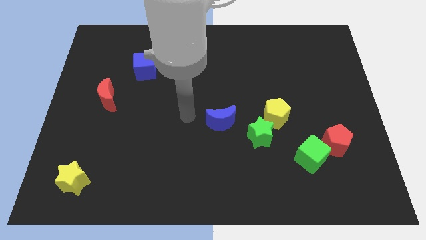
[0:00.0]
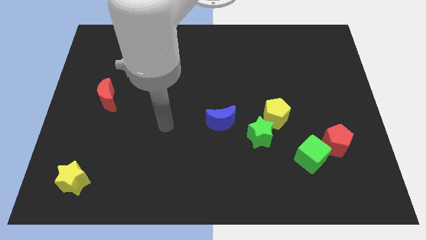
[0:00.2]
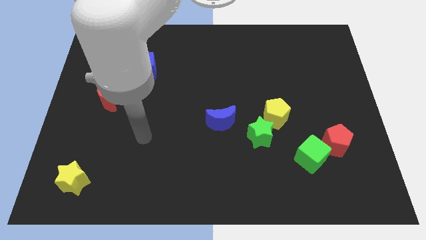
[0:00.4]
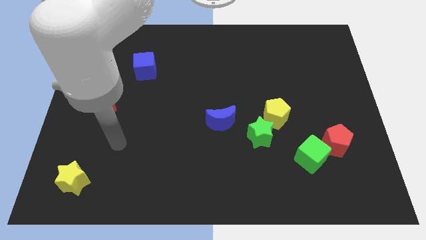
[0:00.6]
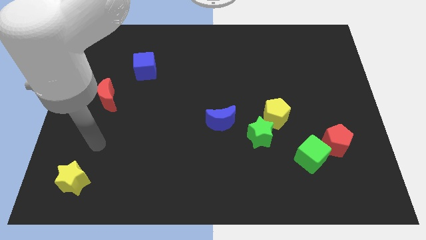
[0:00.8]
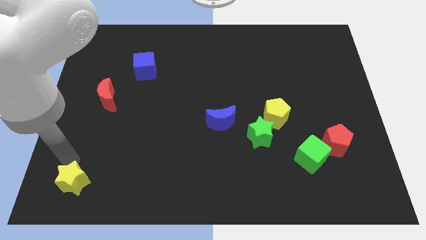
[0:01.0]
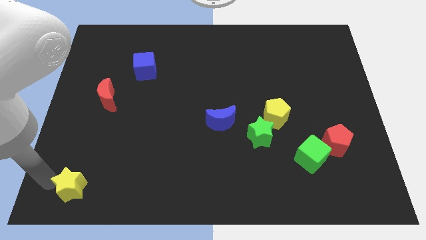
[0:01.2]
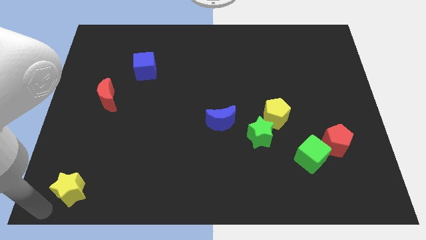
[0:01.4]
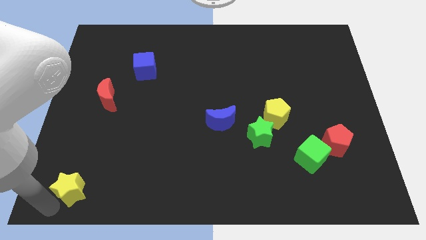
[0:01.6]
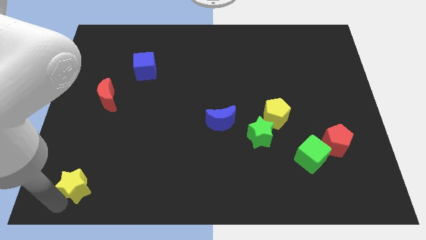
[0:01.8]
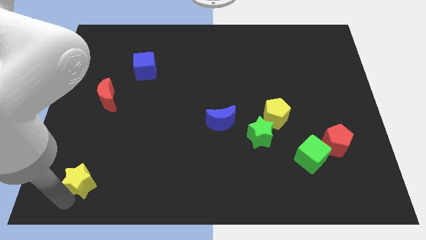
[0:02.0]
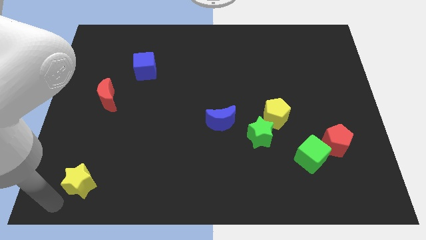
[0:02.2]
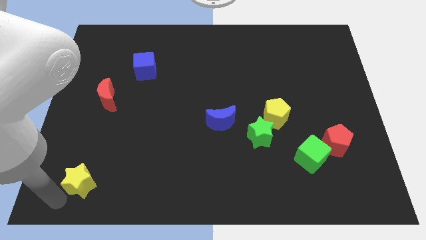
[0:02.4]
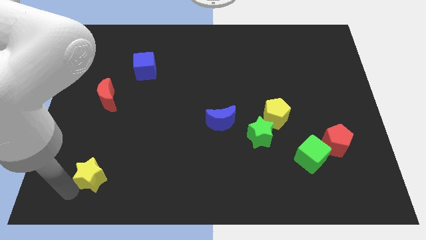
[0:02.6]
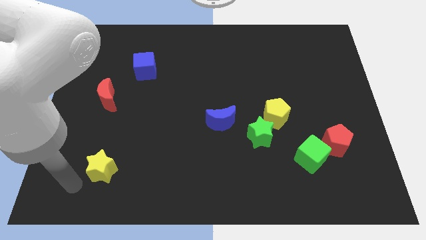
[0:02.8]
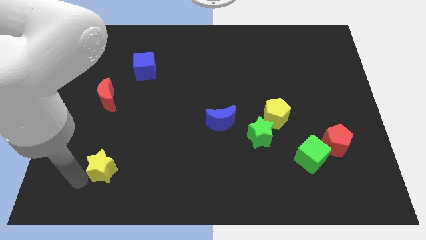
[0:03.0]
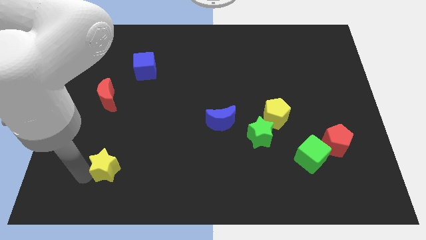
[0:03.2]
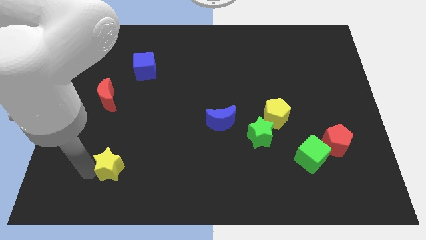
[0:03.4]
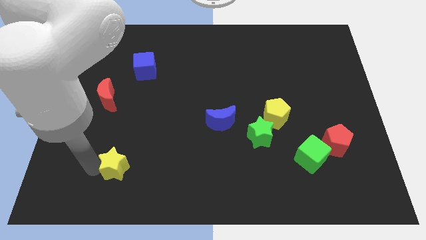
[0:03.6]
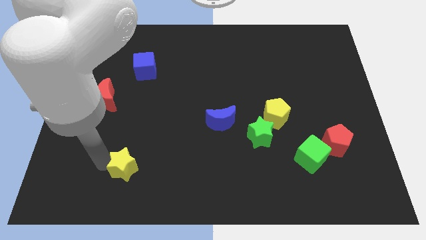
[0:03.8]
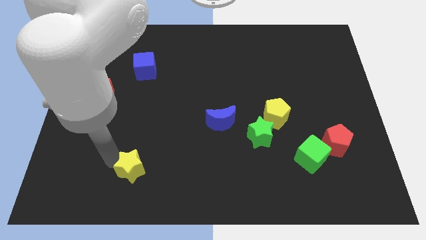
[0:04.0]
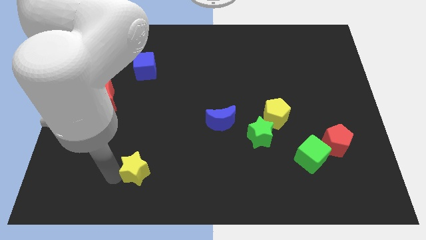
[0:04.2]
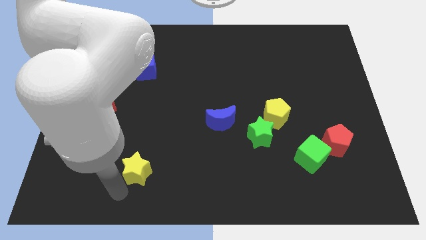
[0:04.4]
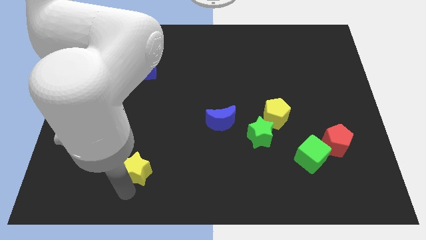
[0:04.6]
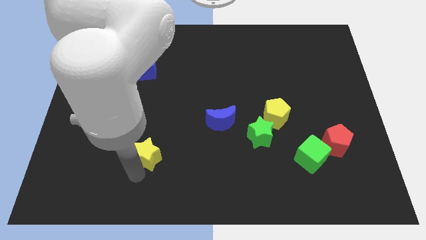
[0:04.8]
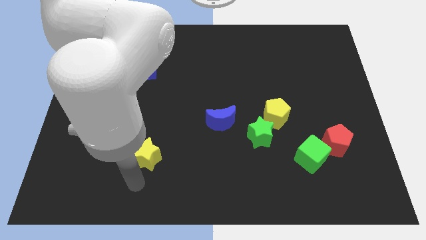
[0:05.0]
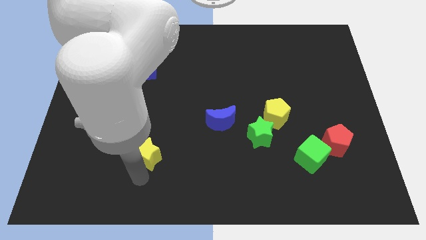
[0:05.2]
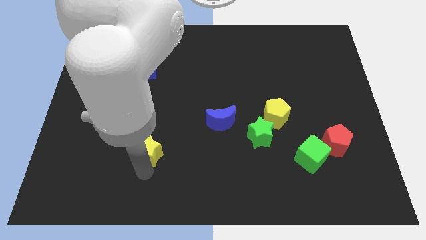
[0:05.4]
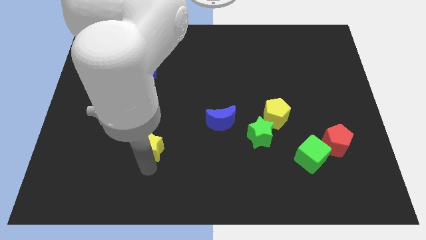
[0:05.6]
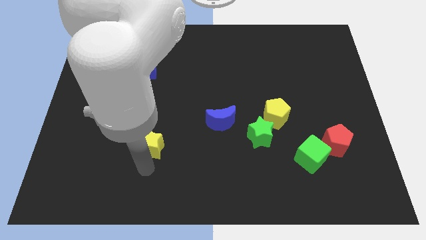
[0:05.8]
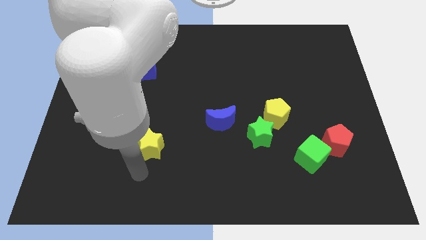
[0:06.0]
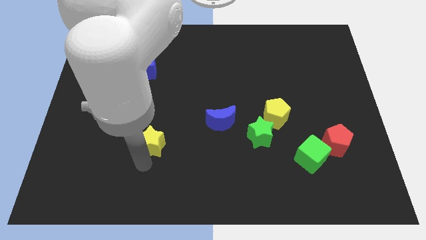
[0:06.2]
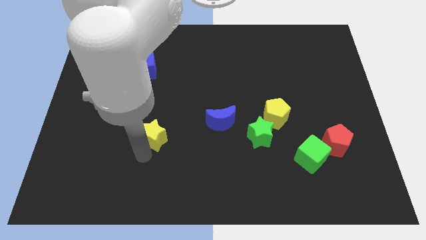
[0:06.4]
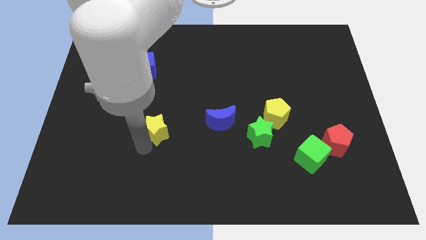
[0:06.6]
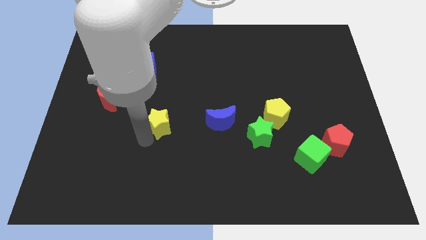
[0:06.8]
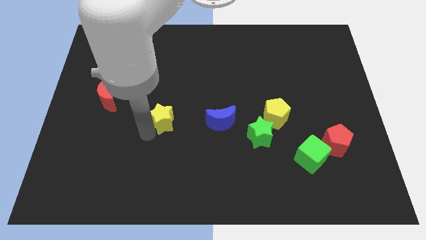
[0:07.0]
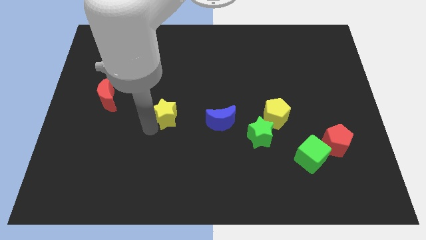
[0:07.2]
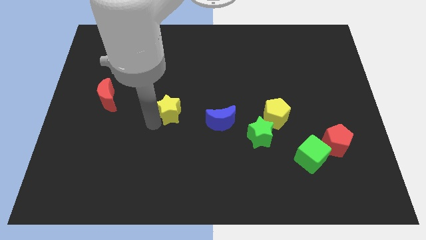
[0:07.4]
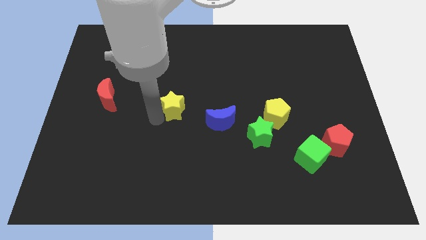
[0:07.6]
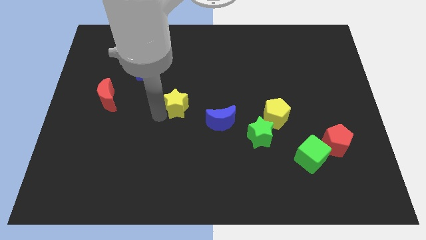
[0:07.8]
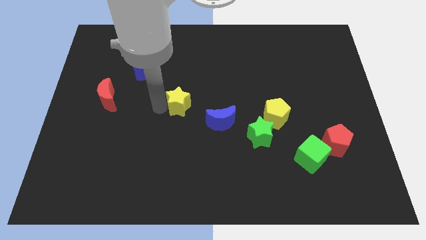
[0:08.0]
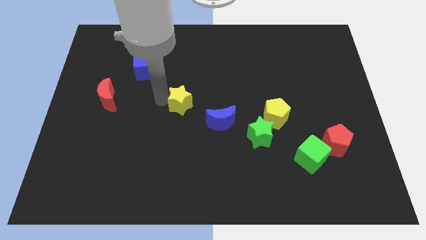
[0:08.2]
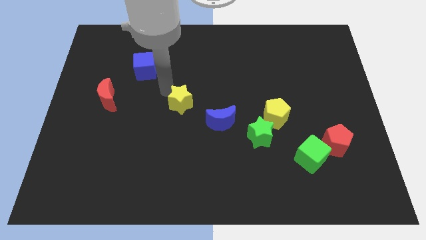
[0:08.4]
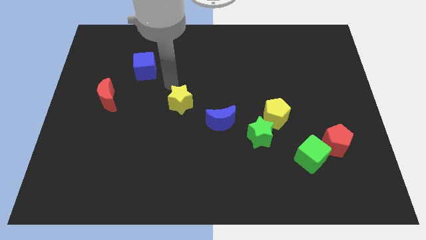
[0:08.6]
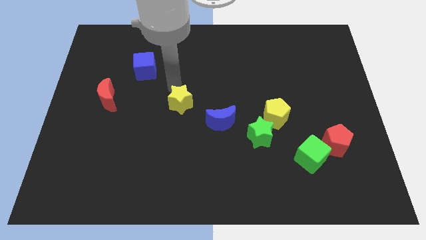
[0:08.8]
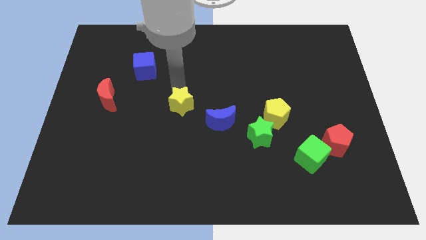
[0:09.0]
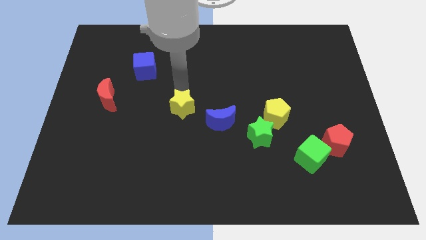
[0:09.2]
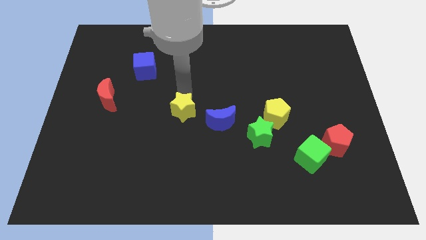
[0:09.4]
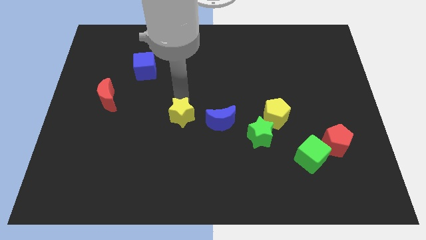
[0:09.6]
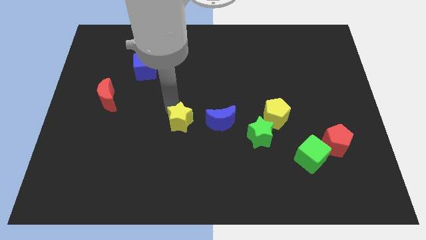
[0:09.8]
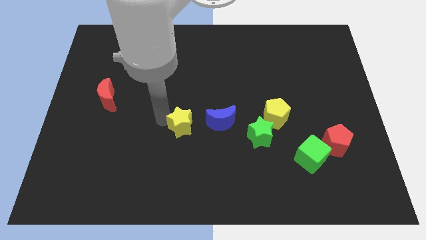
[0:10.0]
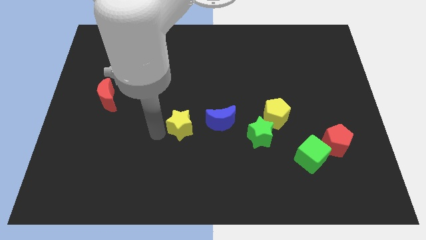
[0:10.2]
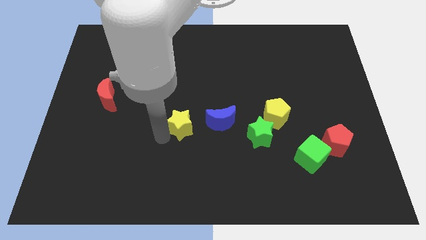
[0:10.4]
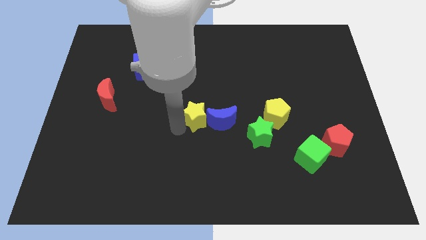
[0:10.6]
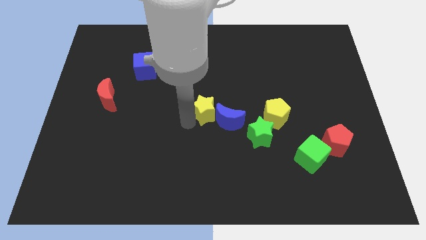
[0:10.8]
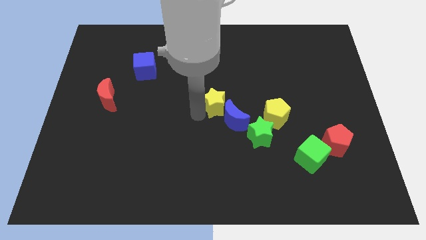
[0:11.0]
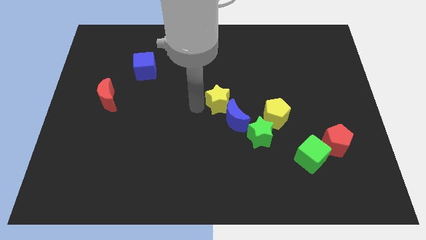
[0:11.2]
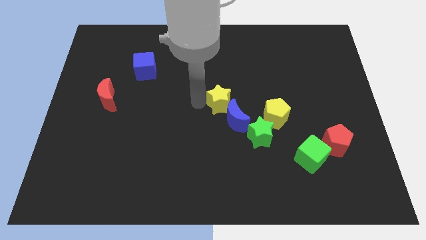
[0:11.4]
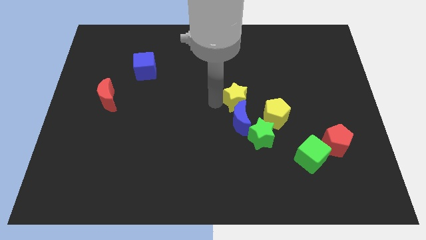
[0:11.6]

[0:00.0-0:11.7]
move the yellow star to the top right of the blue moon

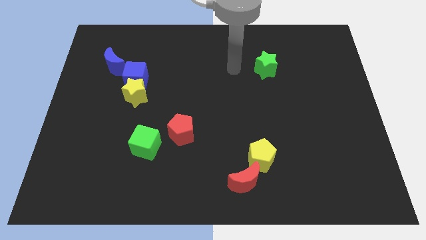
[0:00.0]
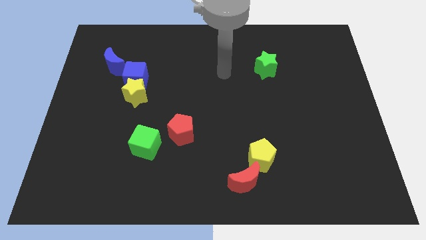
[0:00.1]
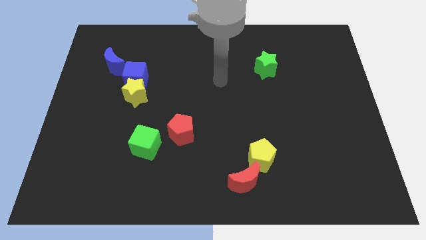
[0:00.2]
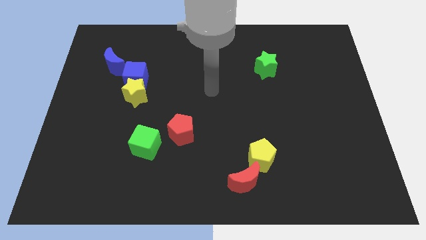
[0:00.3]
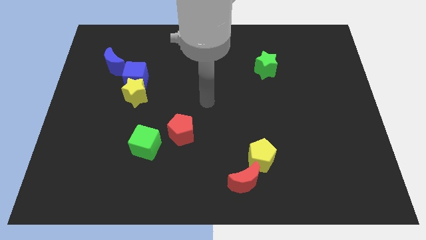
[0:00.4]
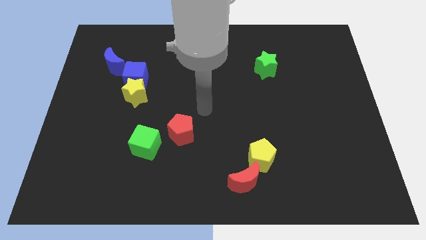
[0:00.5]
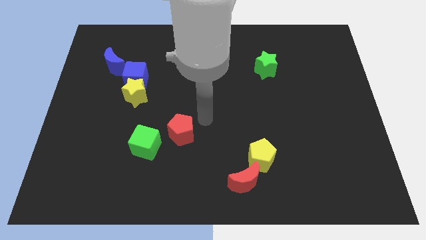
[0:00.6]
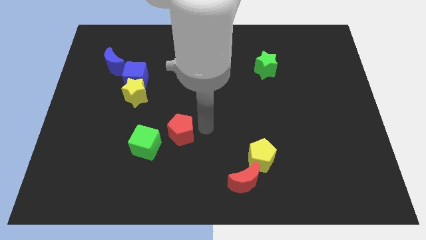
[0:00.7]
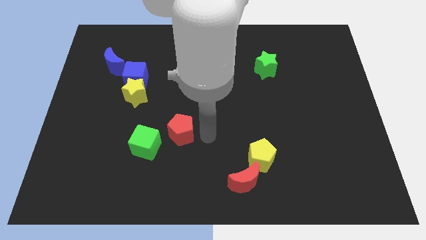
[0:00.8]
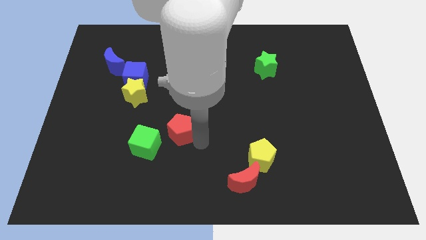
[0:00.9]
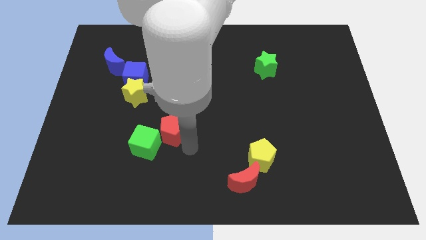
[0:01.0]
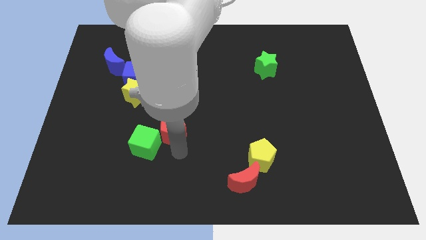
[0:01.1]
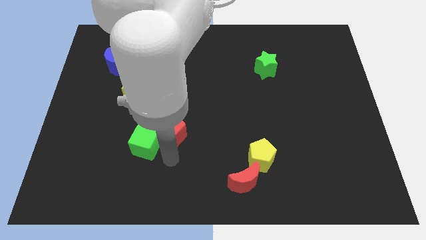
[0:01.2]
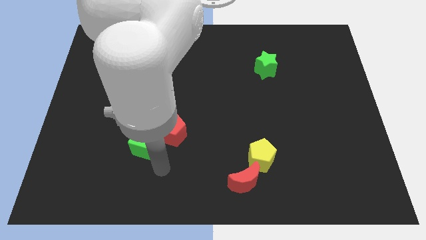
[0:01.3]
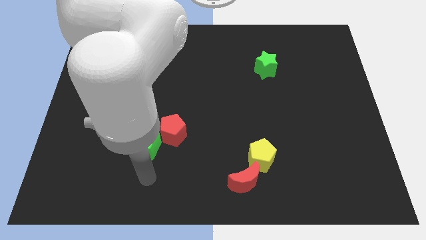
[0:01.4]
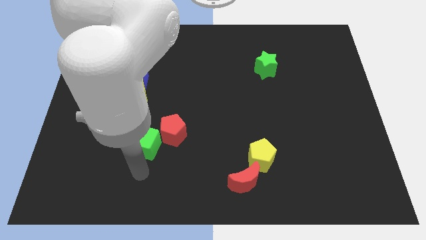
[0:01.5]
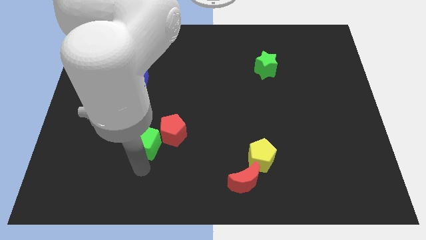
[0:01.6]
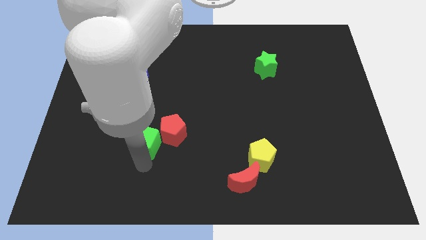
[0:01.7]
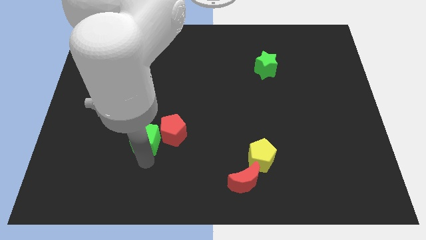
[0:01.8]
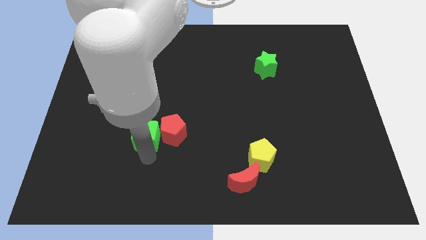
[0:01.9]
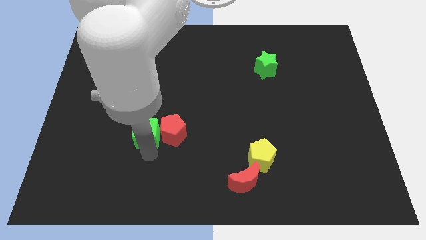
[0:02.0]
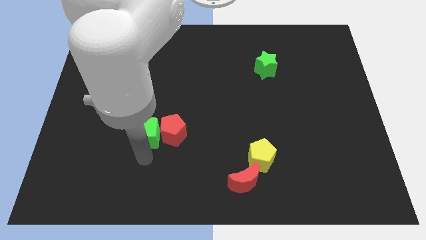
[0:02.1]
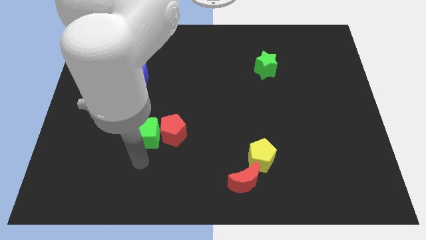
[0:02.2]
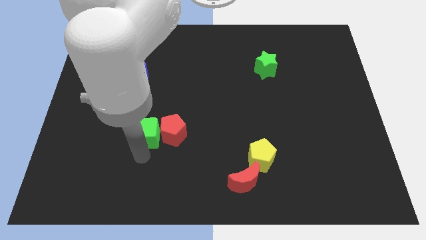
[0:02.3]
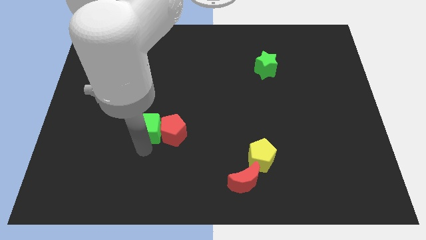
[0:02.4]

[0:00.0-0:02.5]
push the green cube diagonally down and to the right of the yellow star
